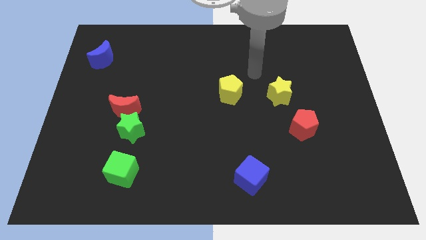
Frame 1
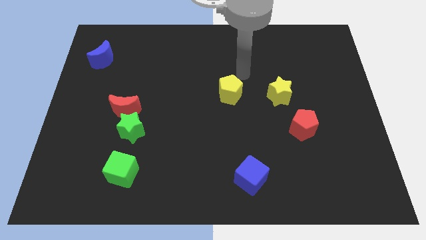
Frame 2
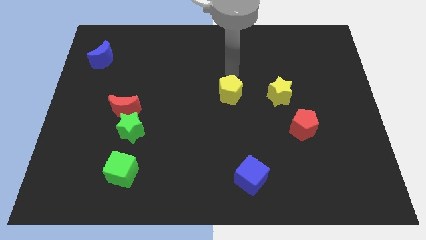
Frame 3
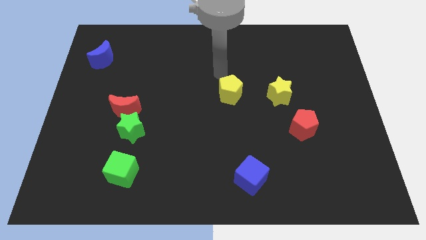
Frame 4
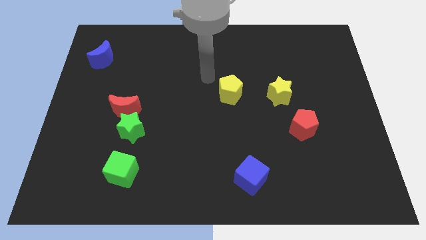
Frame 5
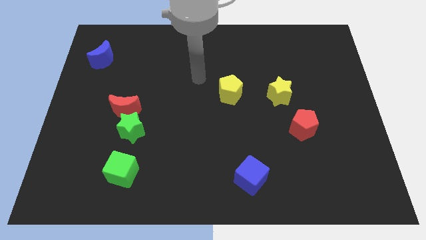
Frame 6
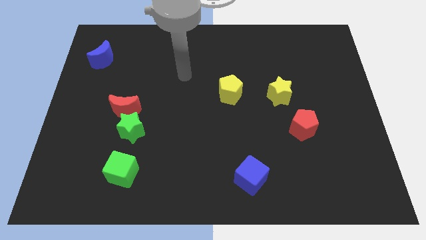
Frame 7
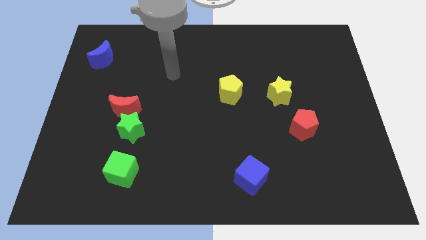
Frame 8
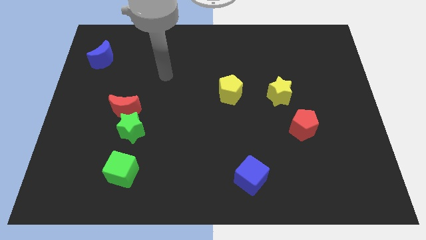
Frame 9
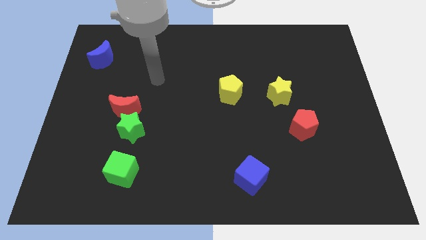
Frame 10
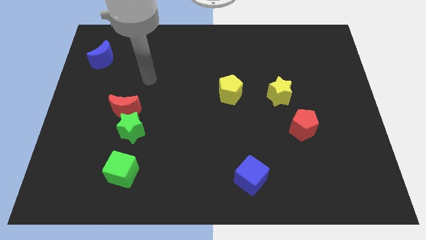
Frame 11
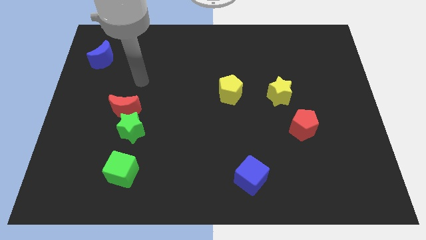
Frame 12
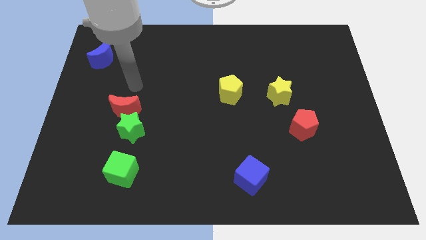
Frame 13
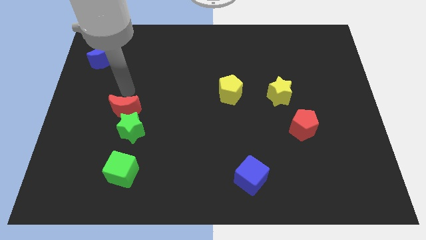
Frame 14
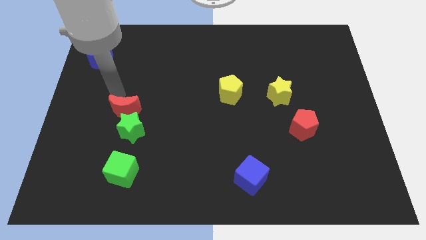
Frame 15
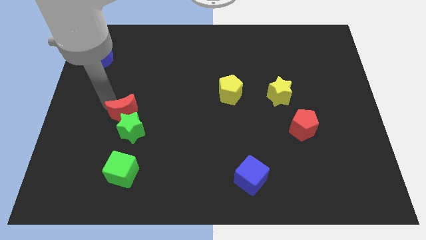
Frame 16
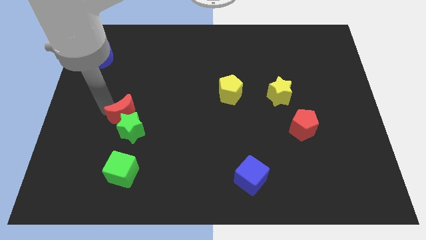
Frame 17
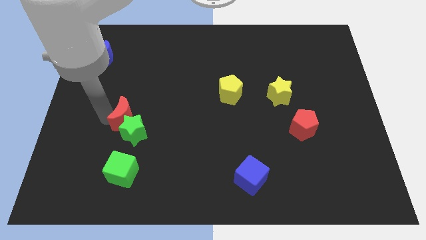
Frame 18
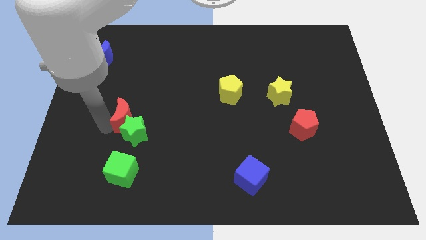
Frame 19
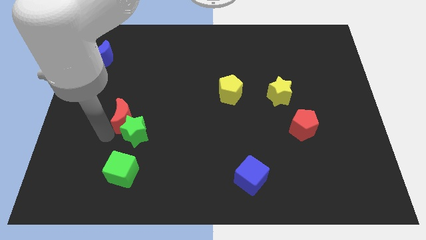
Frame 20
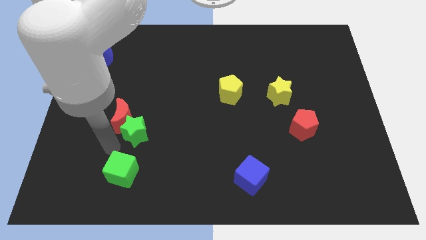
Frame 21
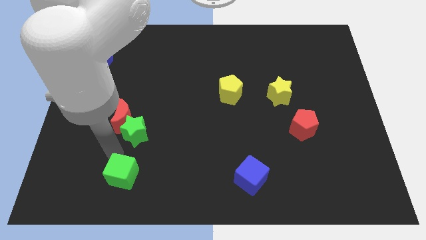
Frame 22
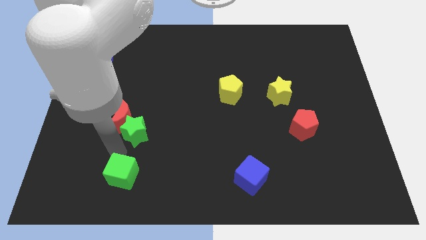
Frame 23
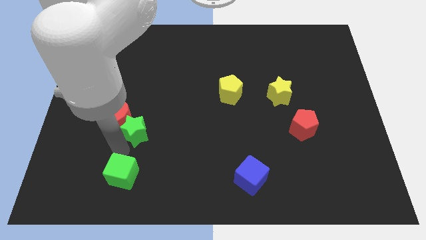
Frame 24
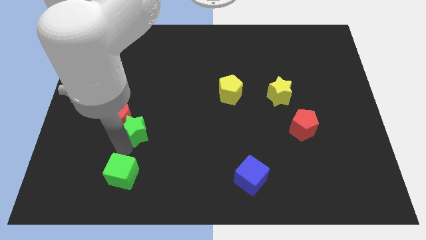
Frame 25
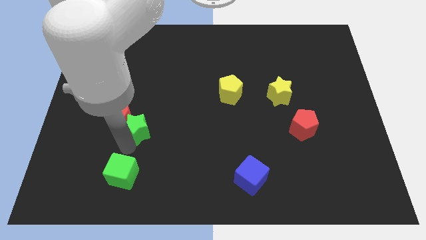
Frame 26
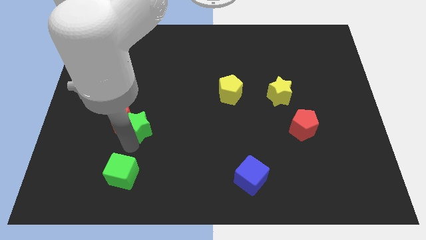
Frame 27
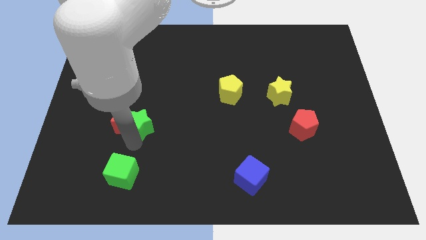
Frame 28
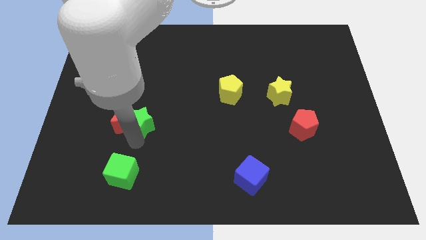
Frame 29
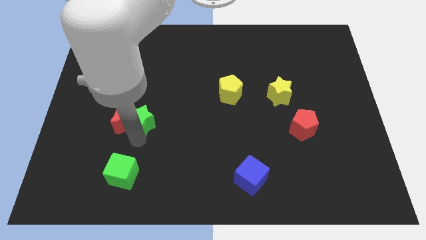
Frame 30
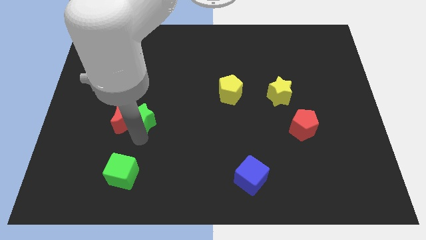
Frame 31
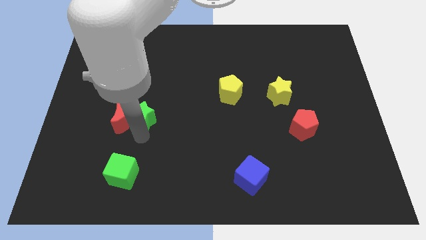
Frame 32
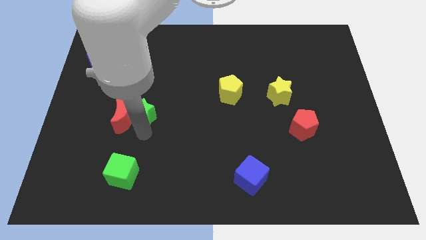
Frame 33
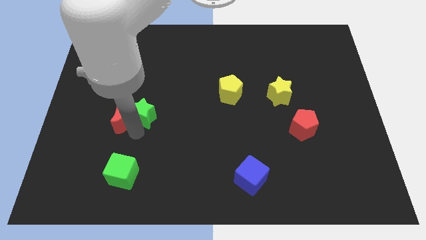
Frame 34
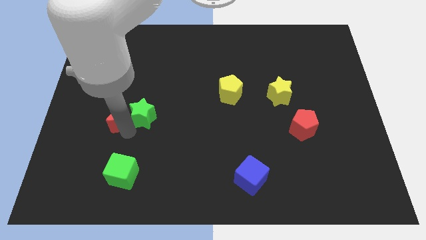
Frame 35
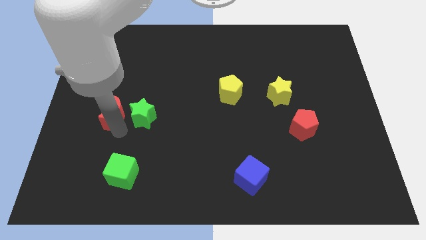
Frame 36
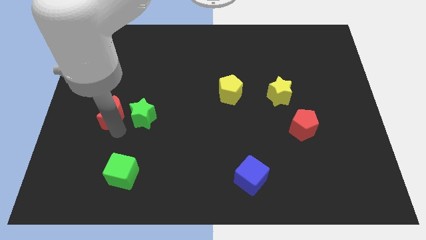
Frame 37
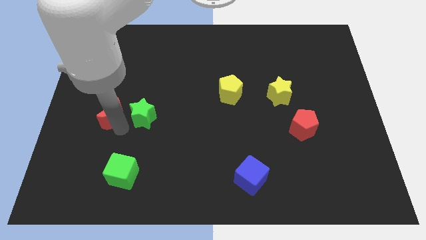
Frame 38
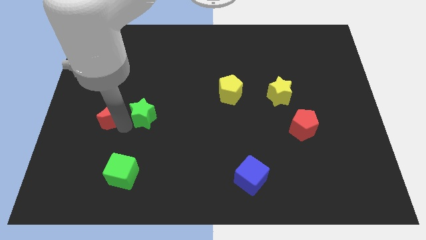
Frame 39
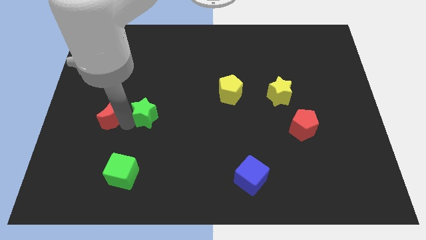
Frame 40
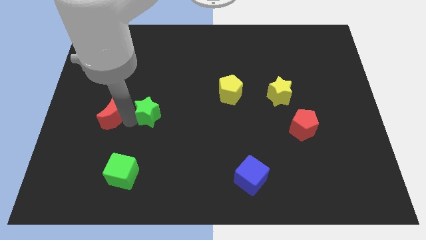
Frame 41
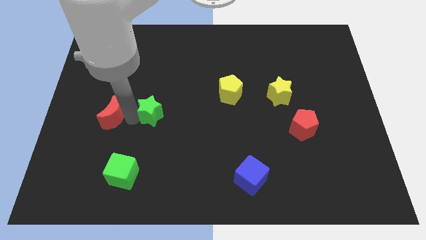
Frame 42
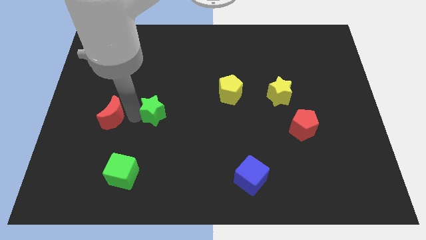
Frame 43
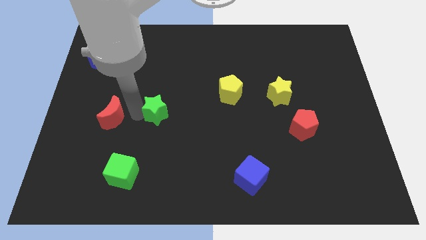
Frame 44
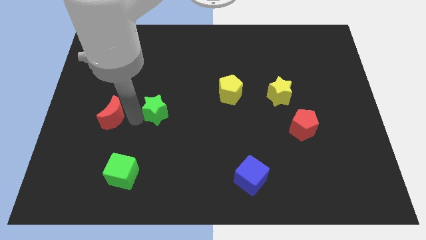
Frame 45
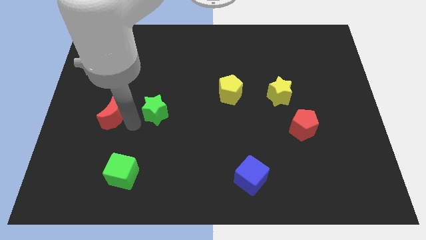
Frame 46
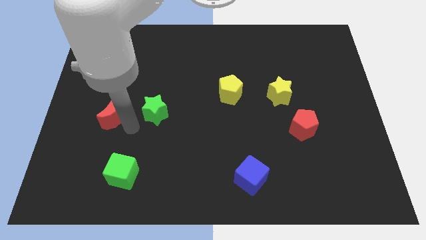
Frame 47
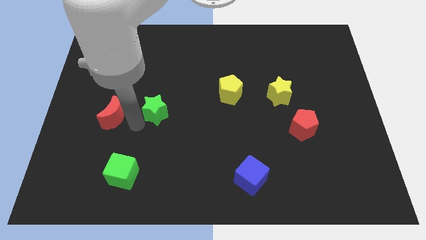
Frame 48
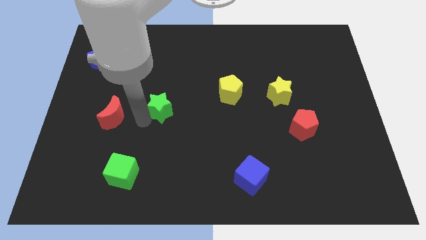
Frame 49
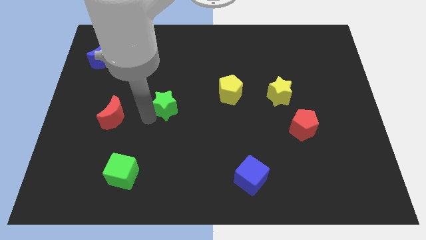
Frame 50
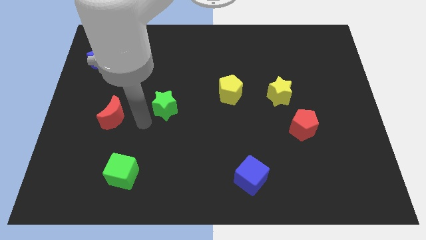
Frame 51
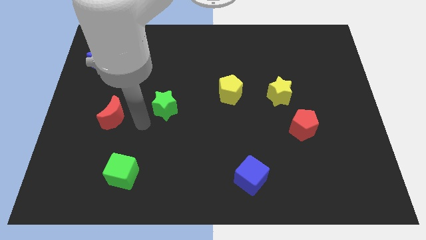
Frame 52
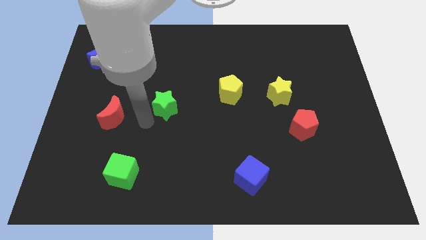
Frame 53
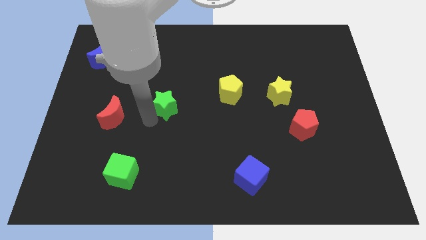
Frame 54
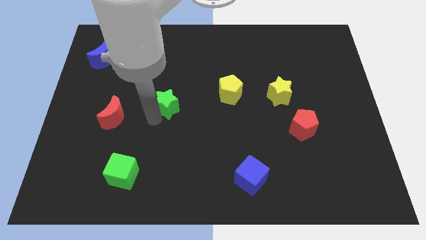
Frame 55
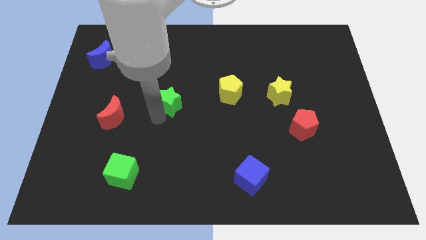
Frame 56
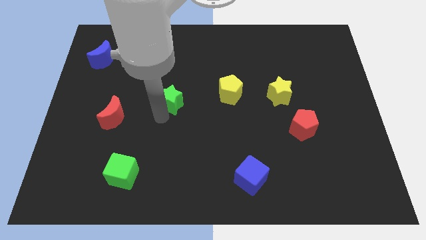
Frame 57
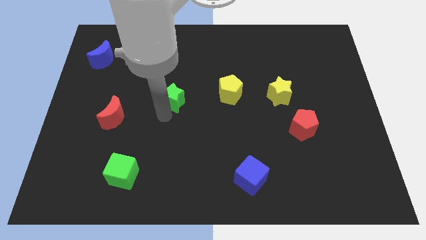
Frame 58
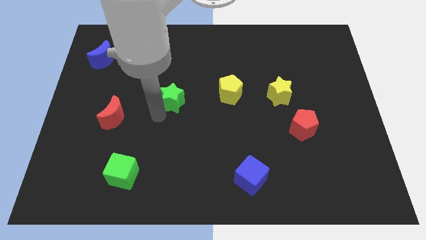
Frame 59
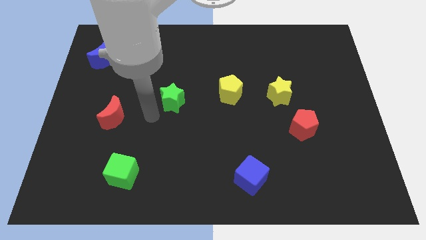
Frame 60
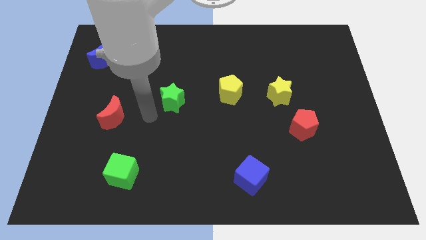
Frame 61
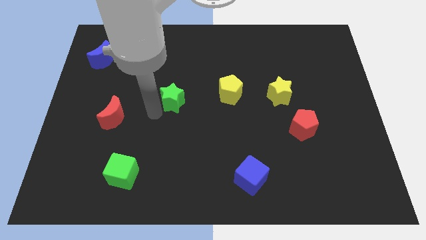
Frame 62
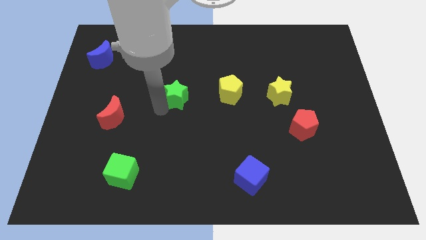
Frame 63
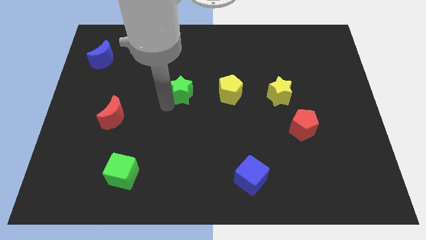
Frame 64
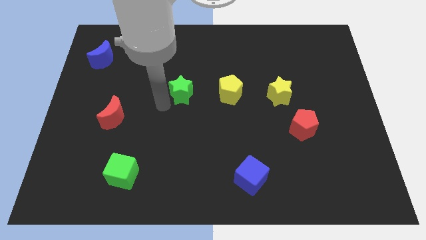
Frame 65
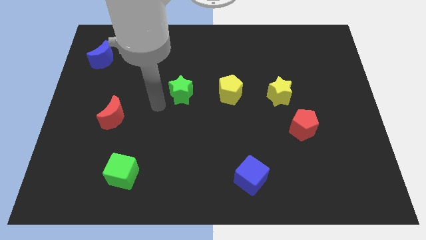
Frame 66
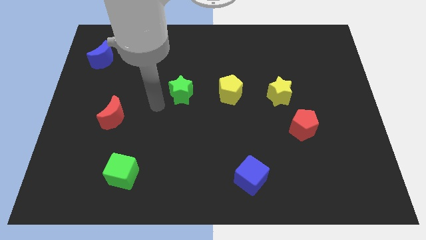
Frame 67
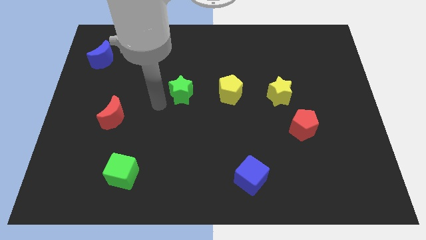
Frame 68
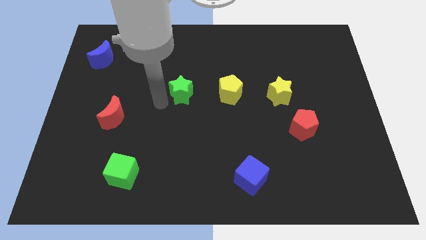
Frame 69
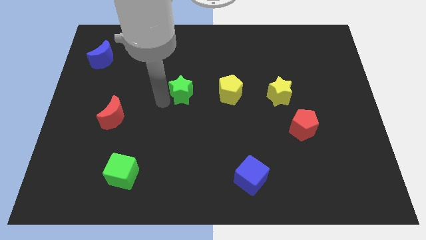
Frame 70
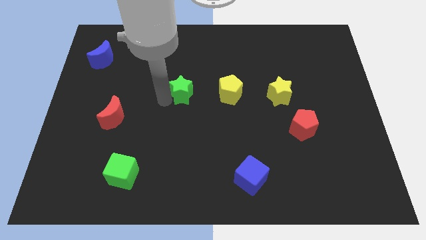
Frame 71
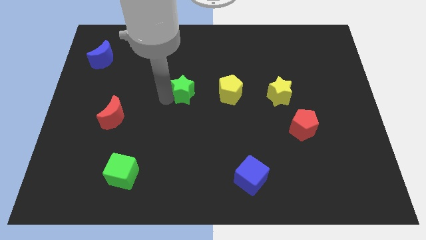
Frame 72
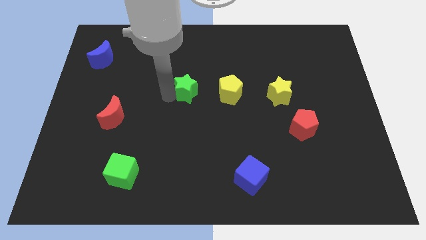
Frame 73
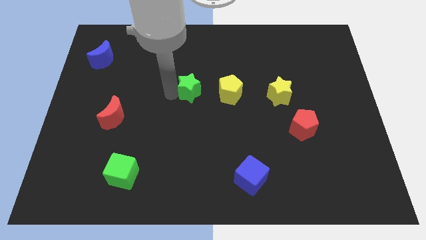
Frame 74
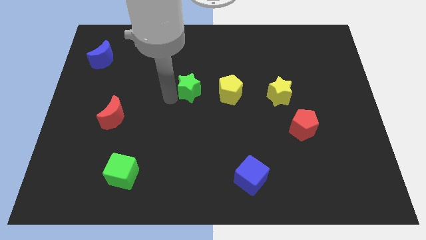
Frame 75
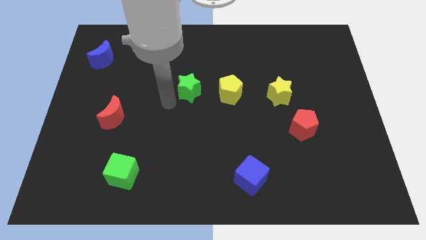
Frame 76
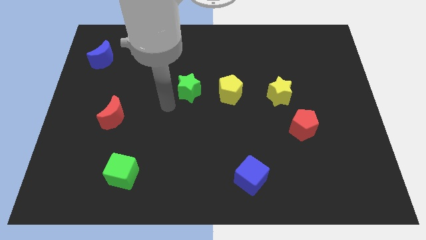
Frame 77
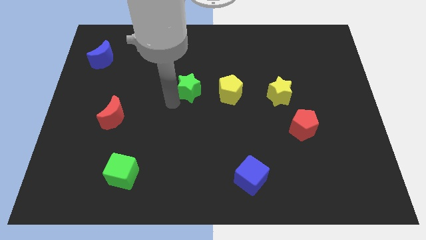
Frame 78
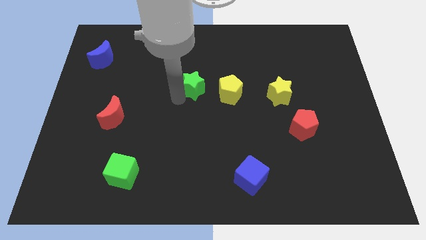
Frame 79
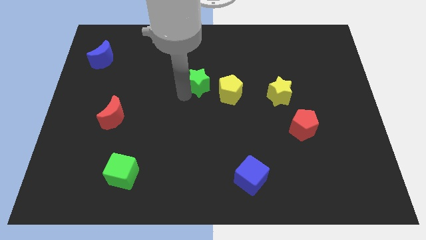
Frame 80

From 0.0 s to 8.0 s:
slide the green star upwards and right diagonally
